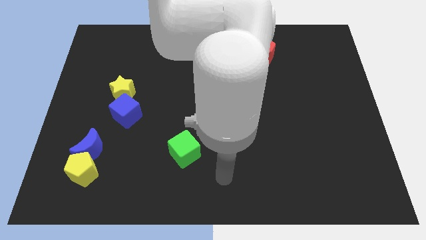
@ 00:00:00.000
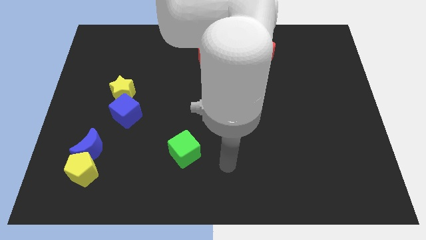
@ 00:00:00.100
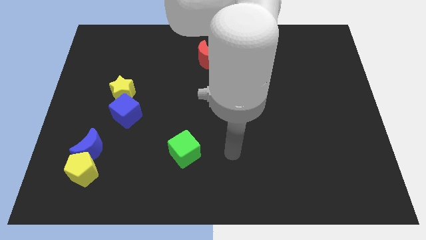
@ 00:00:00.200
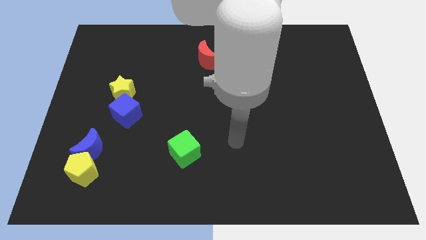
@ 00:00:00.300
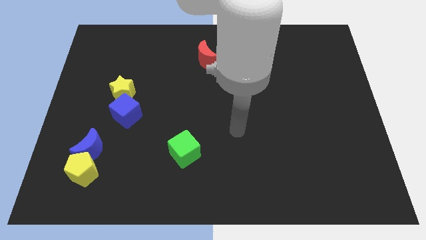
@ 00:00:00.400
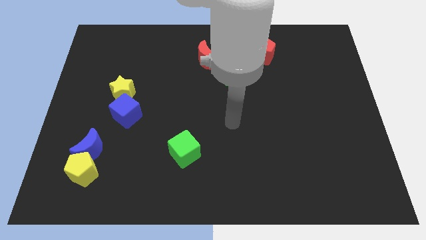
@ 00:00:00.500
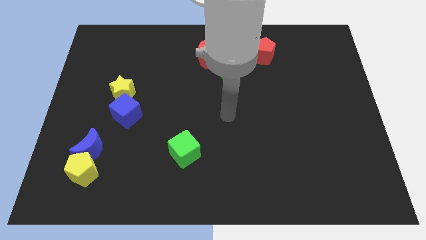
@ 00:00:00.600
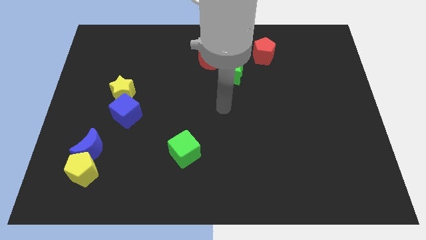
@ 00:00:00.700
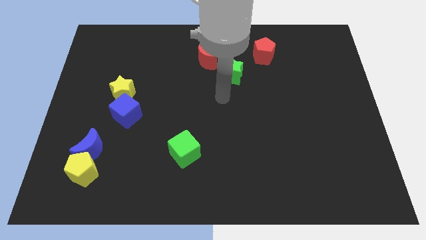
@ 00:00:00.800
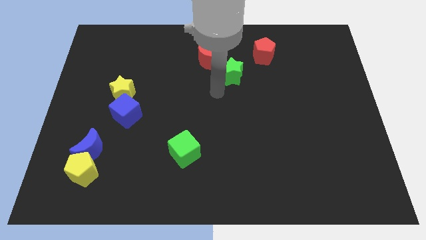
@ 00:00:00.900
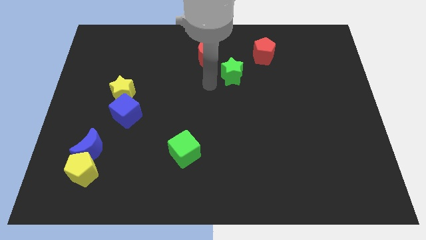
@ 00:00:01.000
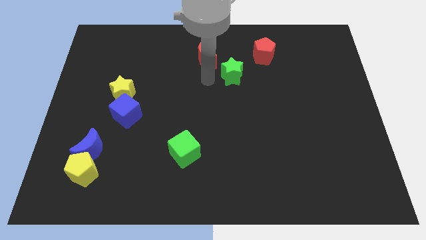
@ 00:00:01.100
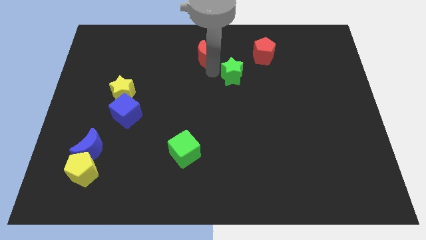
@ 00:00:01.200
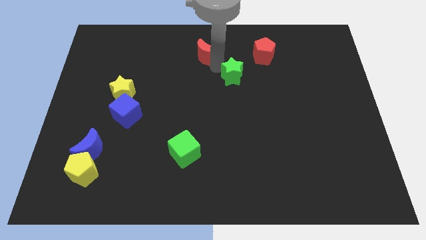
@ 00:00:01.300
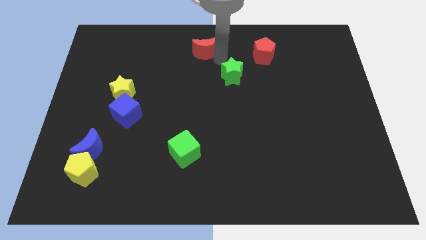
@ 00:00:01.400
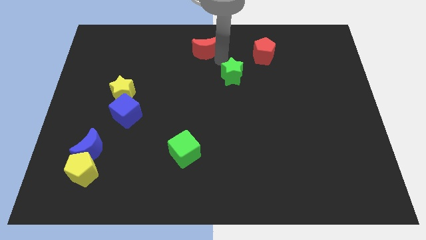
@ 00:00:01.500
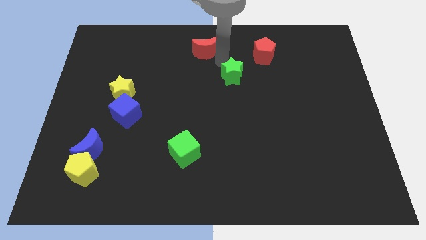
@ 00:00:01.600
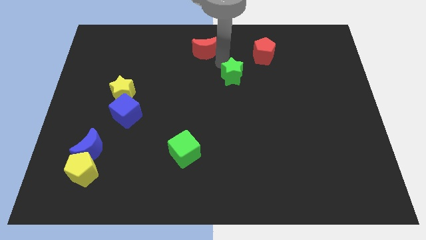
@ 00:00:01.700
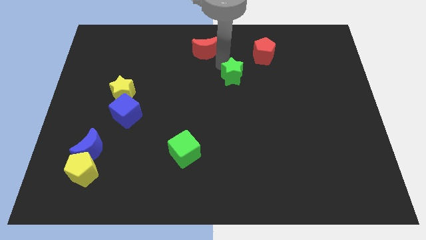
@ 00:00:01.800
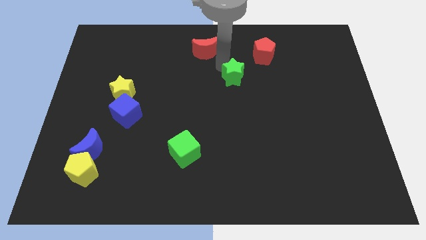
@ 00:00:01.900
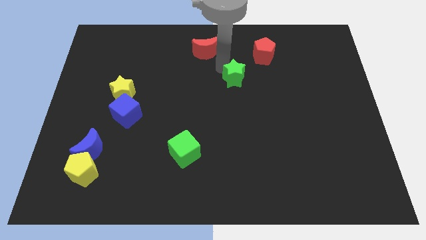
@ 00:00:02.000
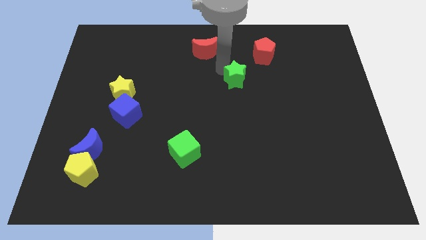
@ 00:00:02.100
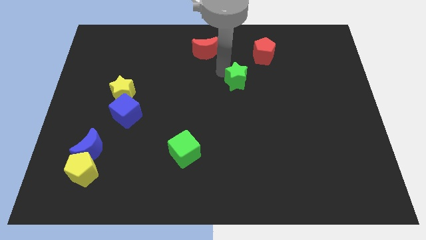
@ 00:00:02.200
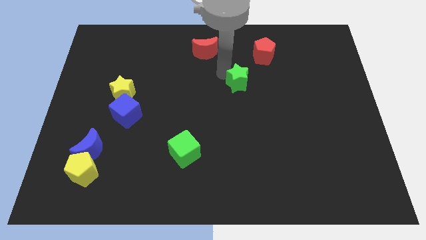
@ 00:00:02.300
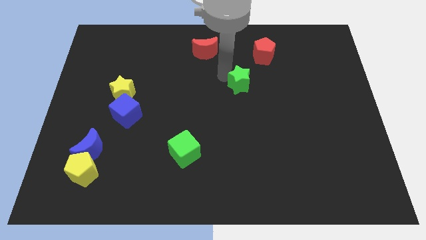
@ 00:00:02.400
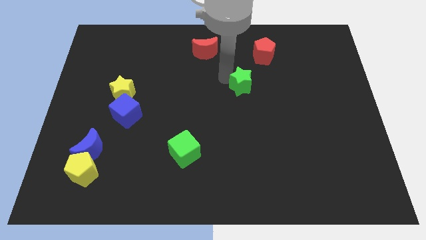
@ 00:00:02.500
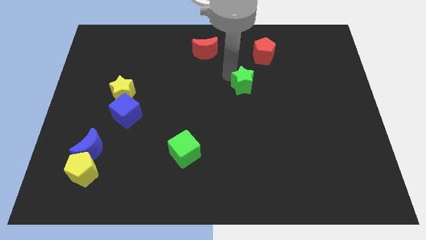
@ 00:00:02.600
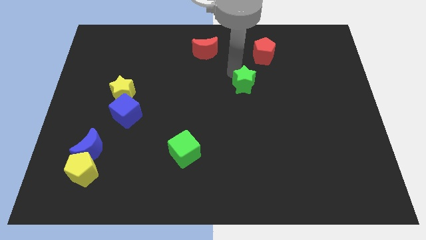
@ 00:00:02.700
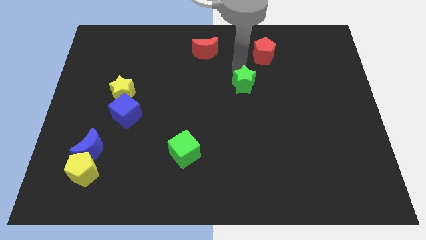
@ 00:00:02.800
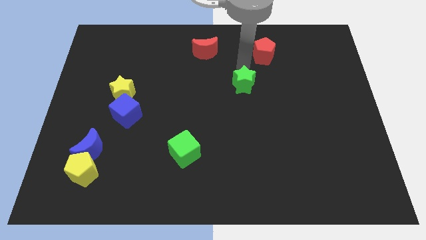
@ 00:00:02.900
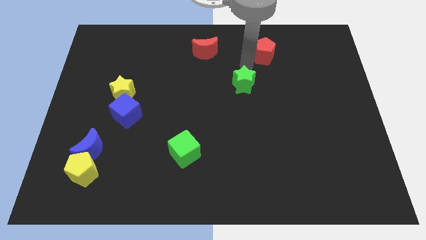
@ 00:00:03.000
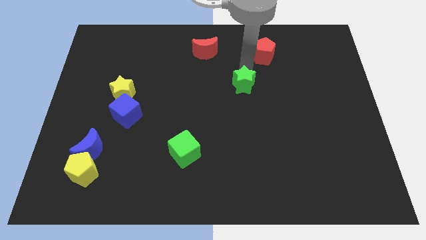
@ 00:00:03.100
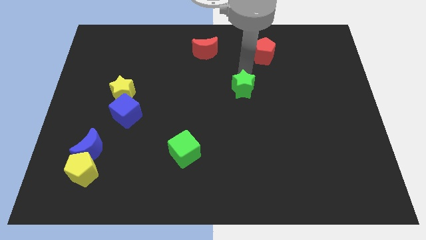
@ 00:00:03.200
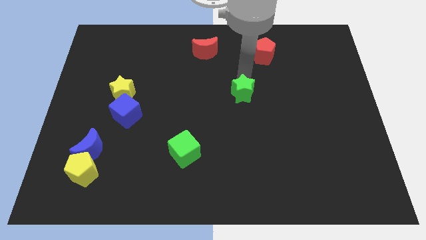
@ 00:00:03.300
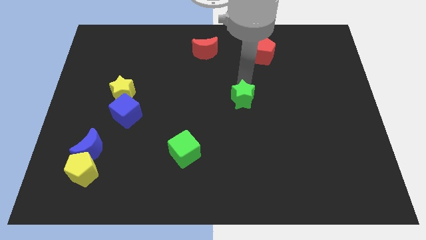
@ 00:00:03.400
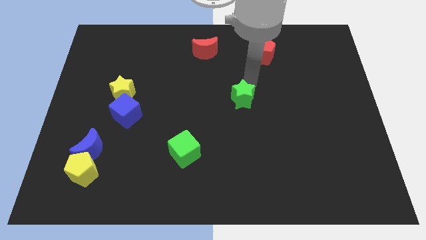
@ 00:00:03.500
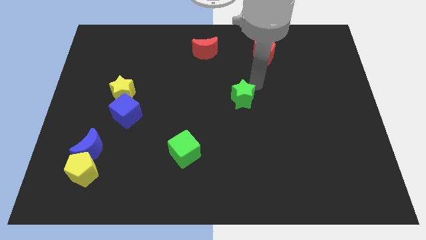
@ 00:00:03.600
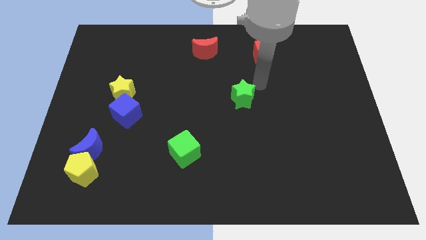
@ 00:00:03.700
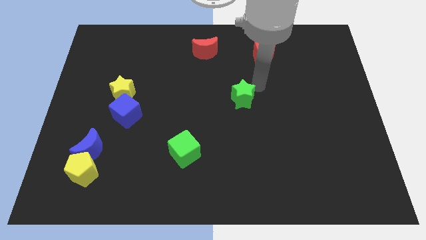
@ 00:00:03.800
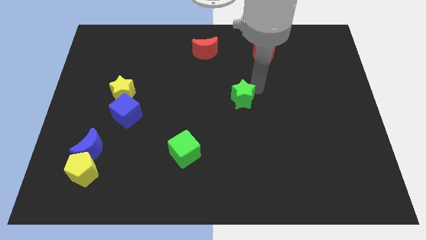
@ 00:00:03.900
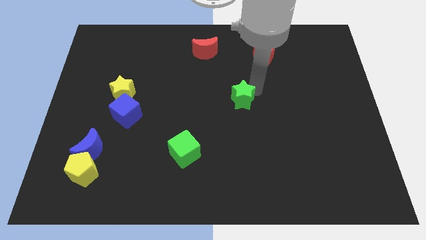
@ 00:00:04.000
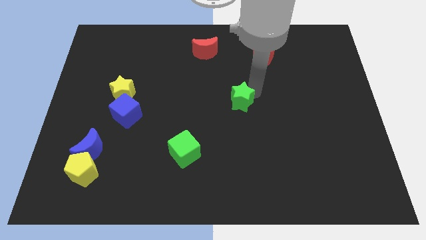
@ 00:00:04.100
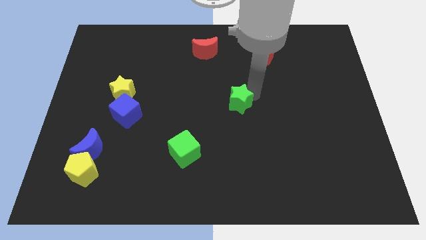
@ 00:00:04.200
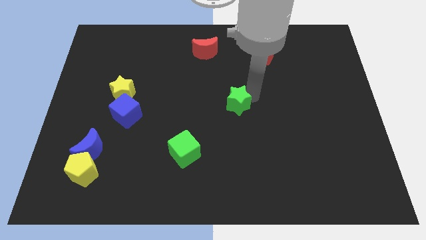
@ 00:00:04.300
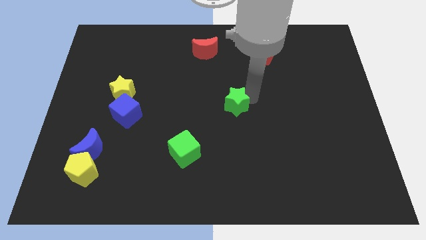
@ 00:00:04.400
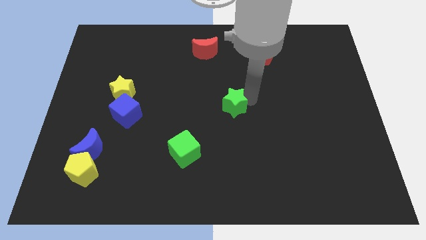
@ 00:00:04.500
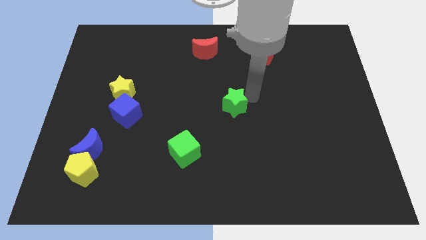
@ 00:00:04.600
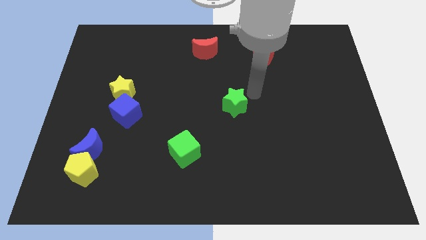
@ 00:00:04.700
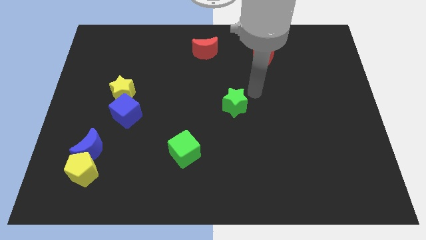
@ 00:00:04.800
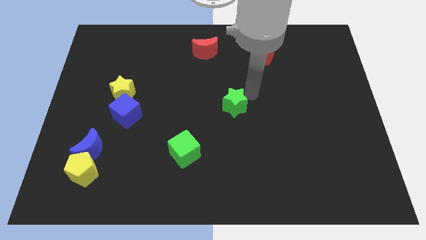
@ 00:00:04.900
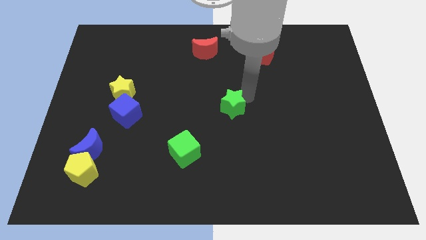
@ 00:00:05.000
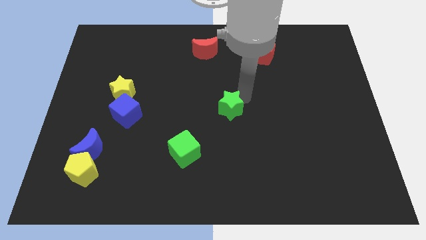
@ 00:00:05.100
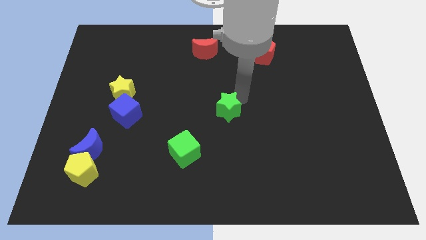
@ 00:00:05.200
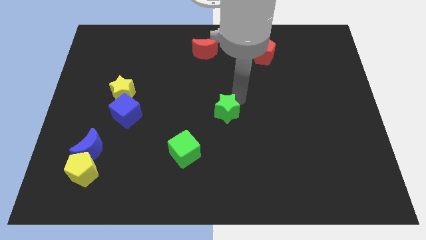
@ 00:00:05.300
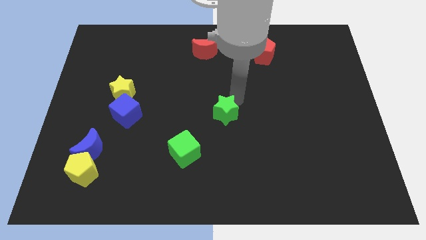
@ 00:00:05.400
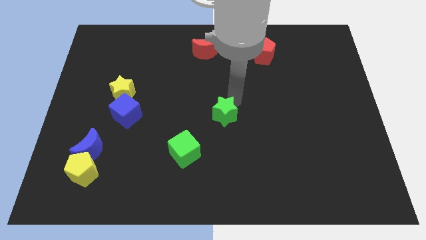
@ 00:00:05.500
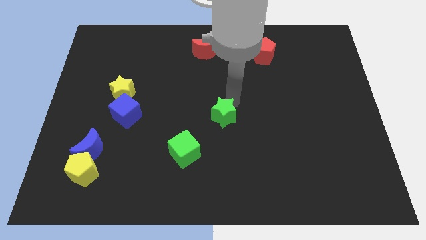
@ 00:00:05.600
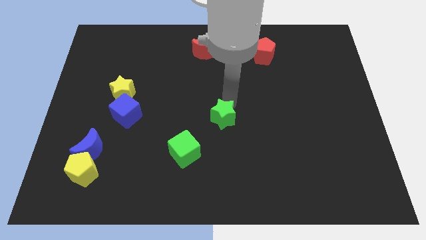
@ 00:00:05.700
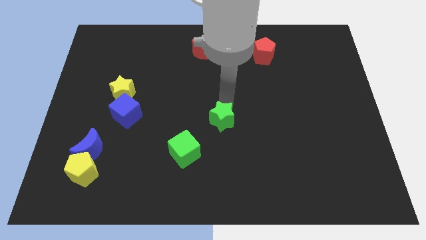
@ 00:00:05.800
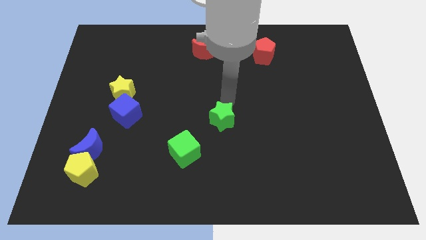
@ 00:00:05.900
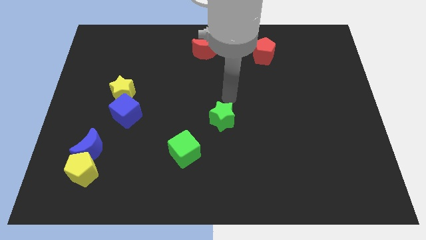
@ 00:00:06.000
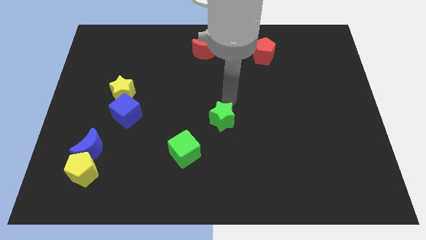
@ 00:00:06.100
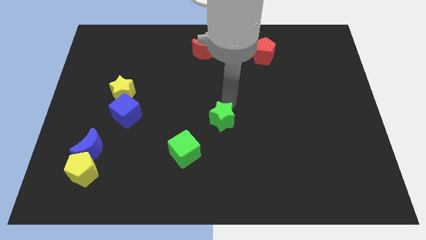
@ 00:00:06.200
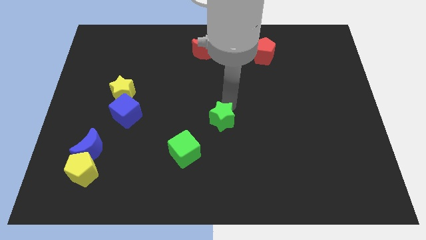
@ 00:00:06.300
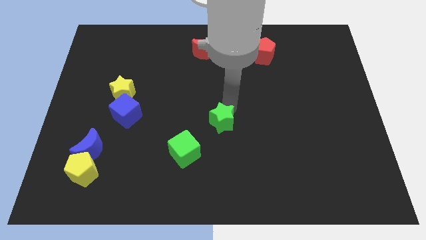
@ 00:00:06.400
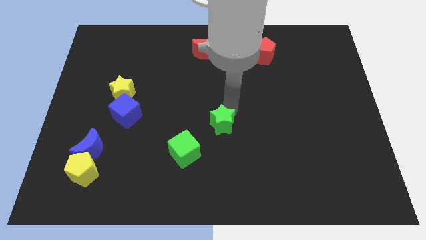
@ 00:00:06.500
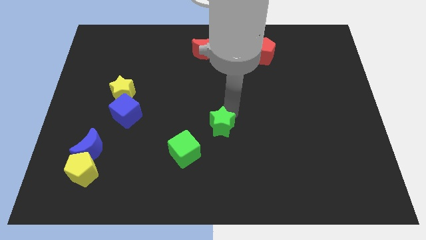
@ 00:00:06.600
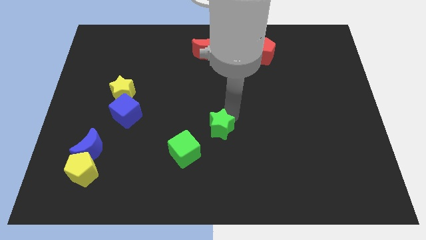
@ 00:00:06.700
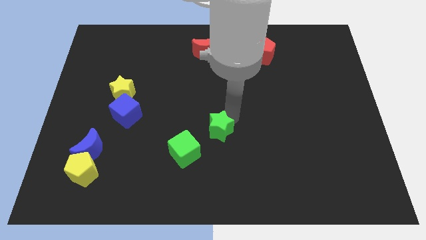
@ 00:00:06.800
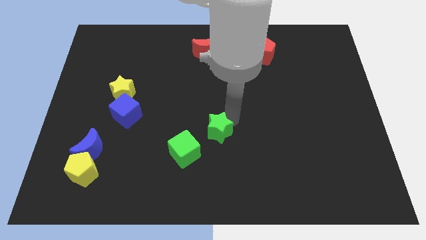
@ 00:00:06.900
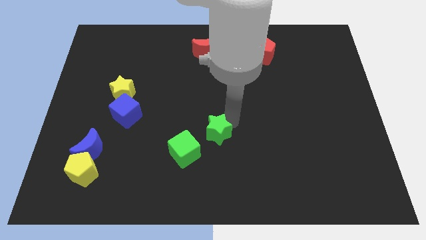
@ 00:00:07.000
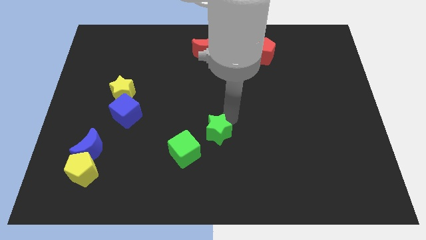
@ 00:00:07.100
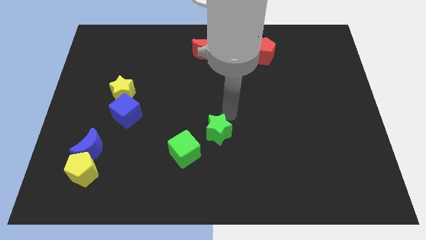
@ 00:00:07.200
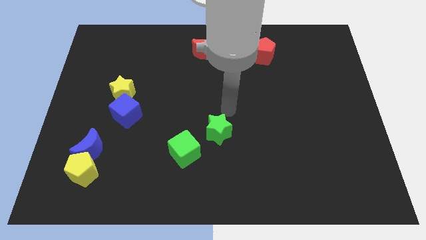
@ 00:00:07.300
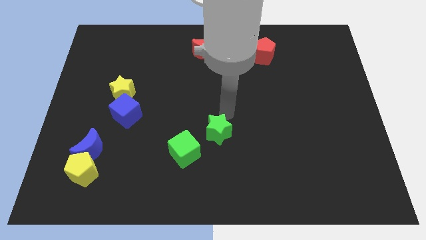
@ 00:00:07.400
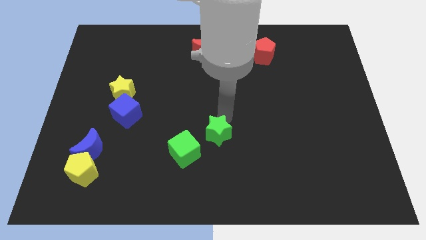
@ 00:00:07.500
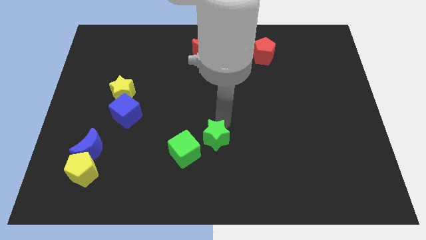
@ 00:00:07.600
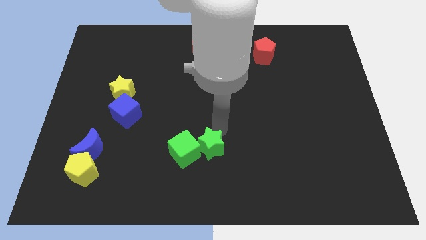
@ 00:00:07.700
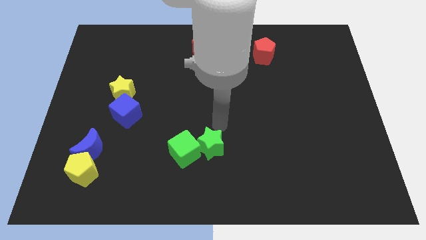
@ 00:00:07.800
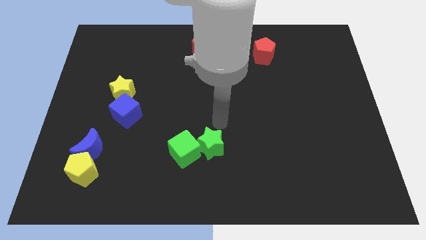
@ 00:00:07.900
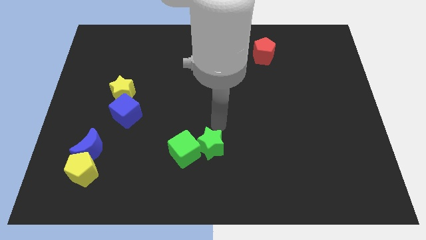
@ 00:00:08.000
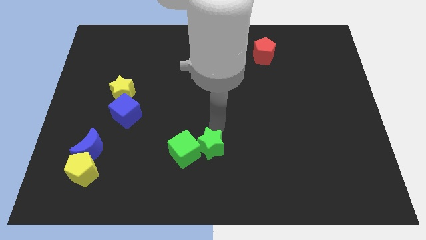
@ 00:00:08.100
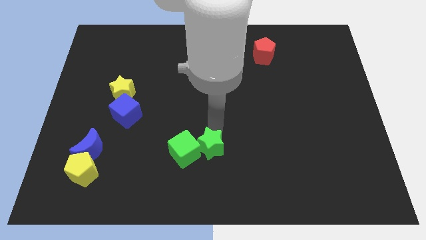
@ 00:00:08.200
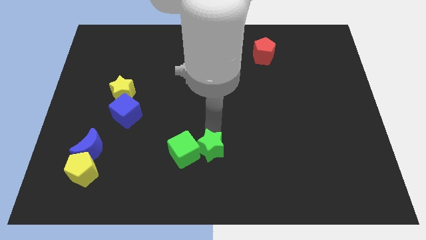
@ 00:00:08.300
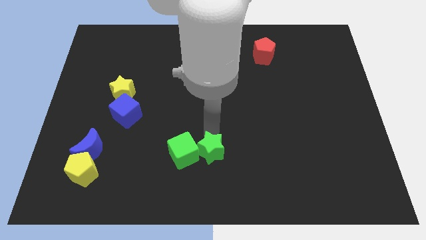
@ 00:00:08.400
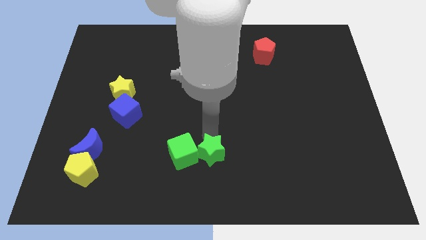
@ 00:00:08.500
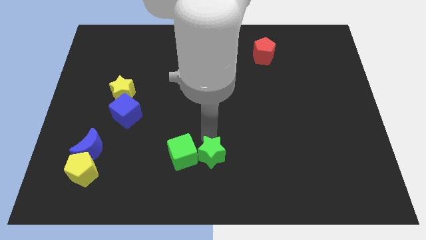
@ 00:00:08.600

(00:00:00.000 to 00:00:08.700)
push the green star to the bottom
